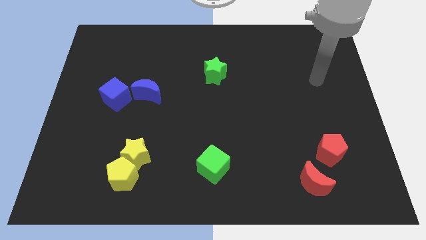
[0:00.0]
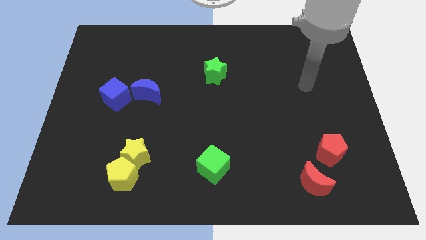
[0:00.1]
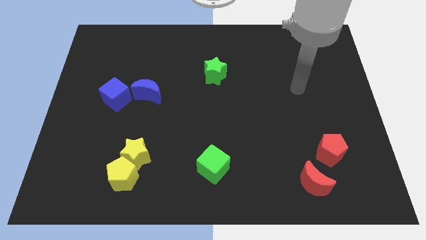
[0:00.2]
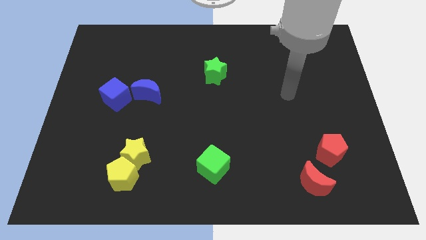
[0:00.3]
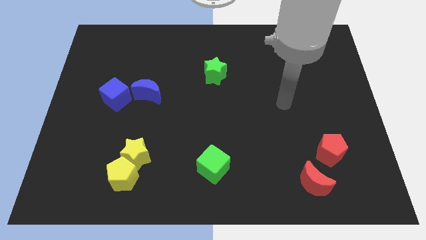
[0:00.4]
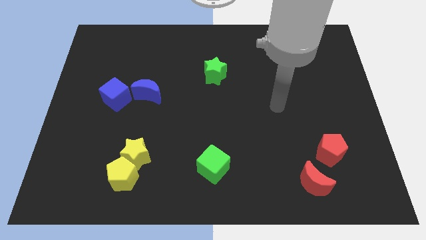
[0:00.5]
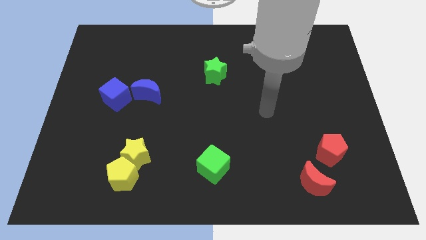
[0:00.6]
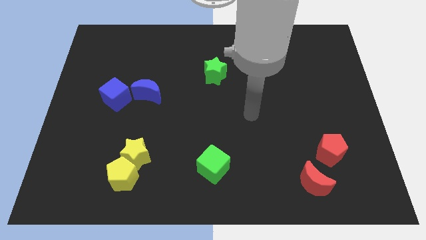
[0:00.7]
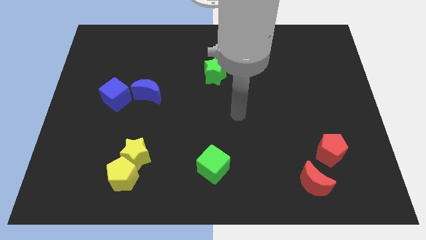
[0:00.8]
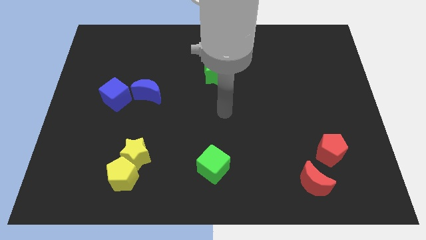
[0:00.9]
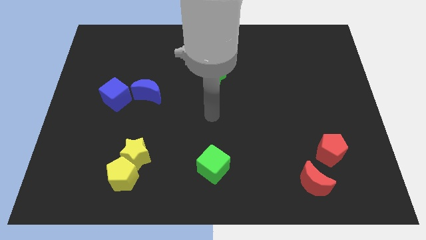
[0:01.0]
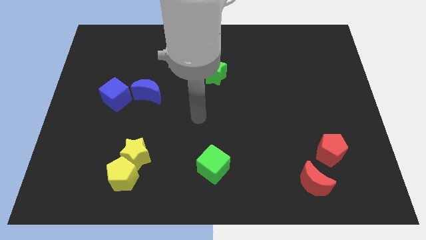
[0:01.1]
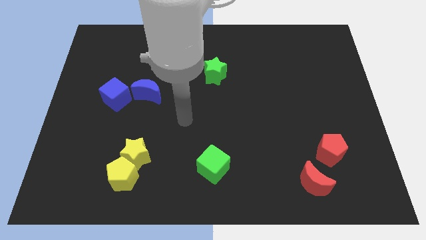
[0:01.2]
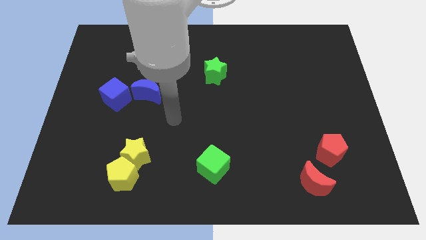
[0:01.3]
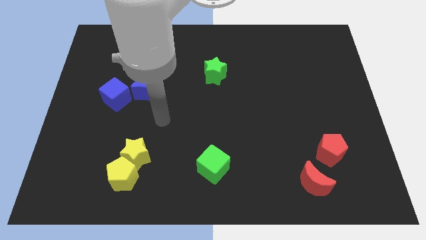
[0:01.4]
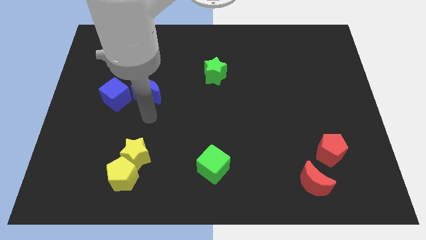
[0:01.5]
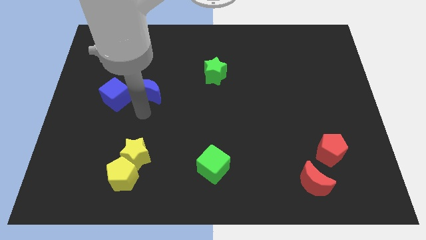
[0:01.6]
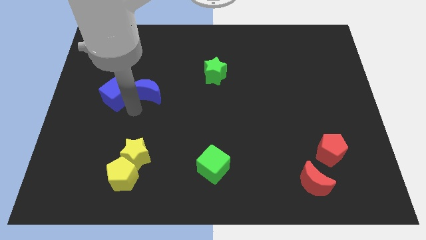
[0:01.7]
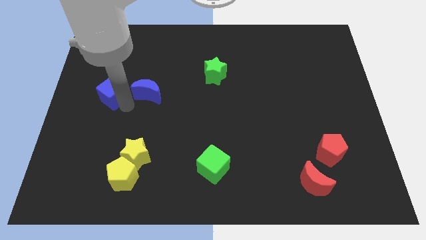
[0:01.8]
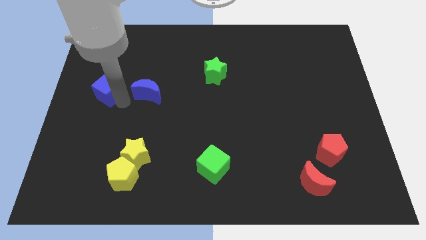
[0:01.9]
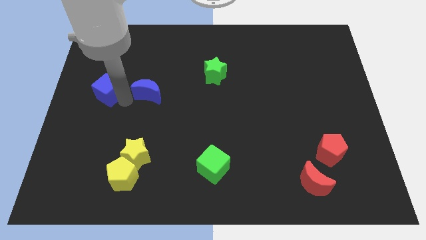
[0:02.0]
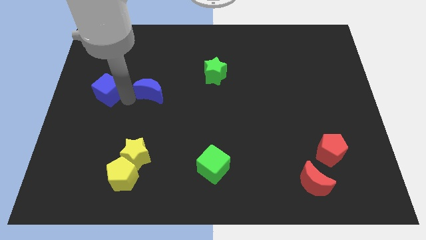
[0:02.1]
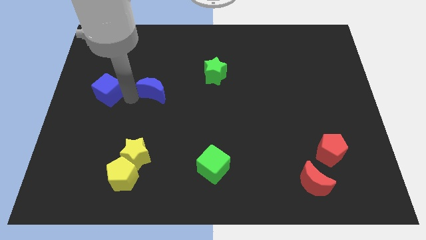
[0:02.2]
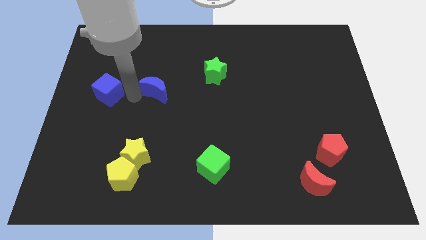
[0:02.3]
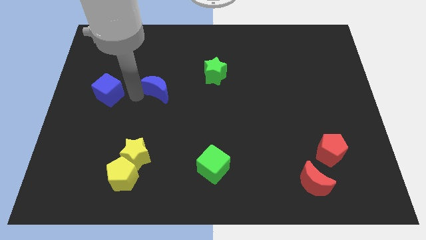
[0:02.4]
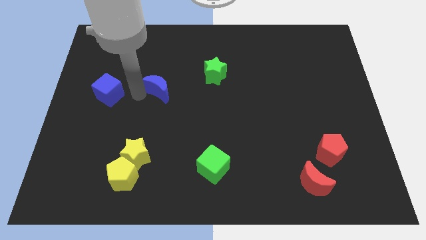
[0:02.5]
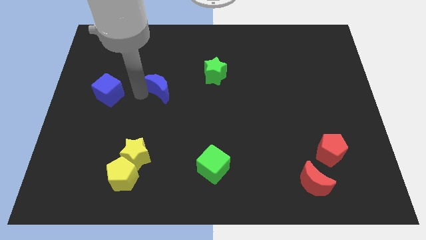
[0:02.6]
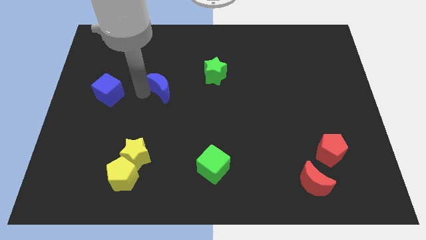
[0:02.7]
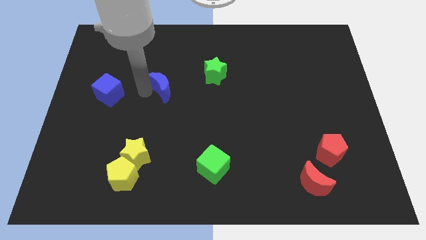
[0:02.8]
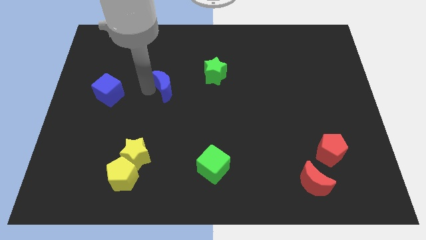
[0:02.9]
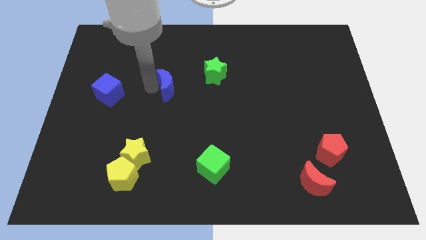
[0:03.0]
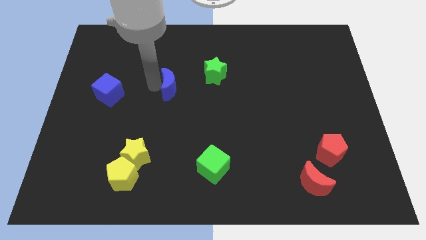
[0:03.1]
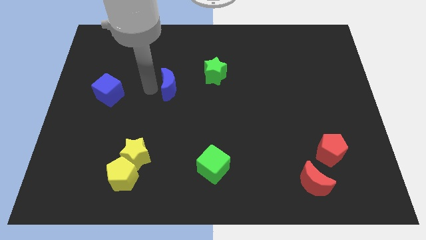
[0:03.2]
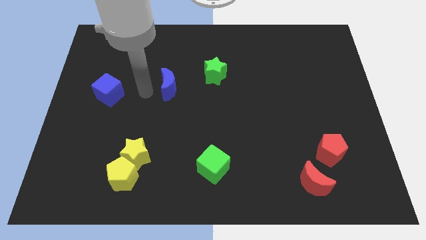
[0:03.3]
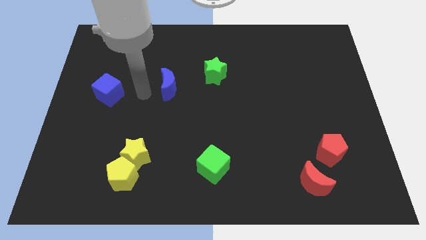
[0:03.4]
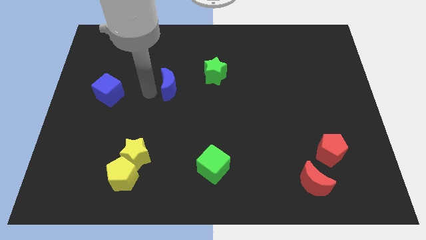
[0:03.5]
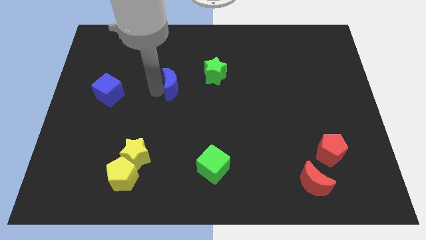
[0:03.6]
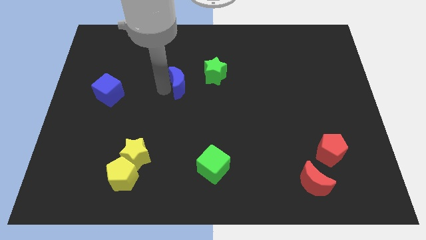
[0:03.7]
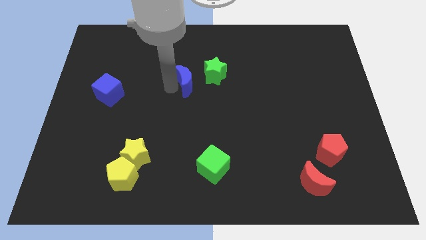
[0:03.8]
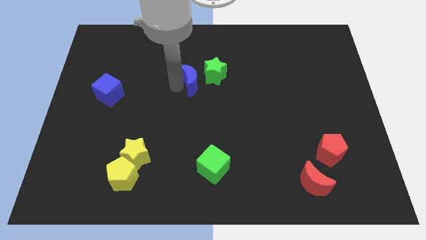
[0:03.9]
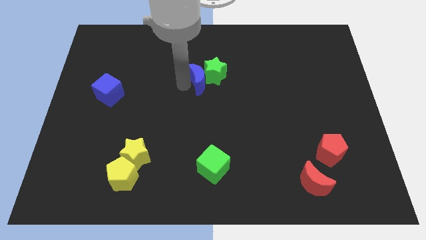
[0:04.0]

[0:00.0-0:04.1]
put the blue moon towards the green star

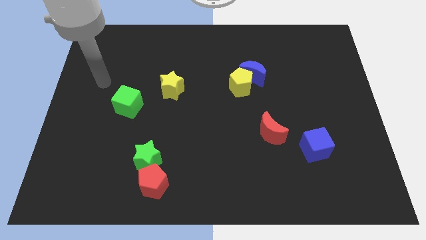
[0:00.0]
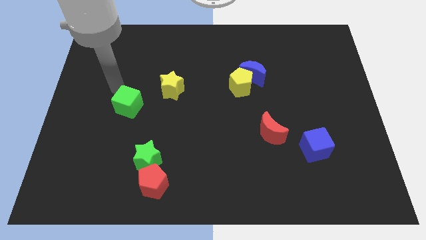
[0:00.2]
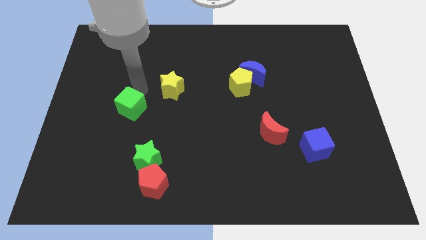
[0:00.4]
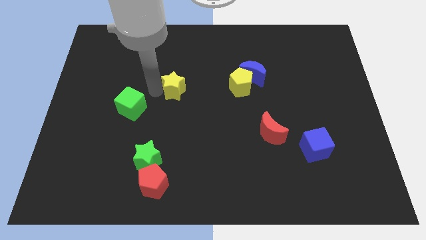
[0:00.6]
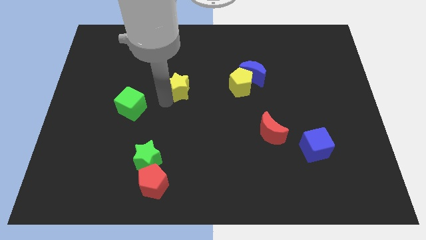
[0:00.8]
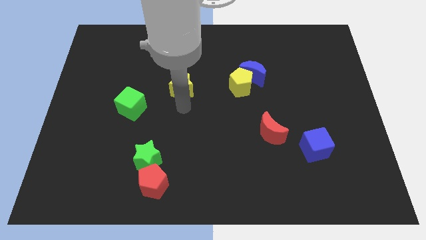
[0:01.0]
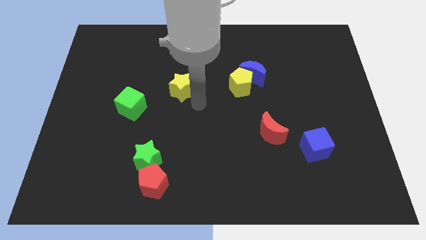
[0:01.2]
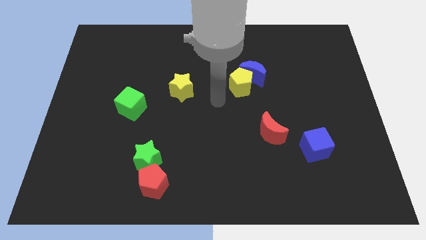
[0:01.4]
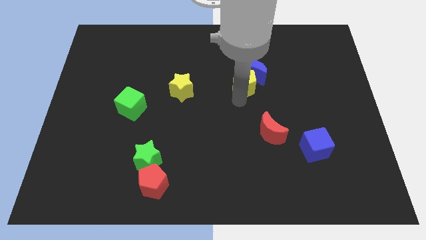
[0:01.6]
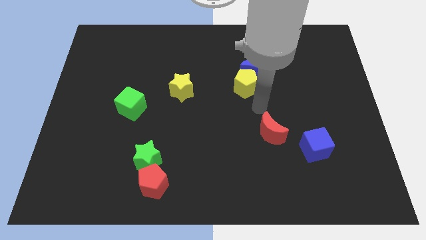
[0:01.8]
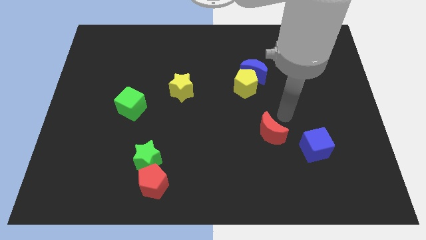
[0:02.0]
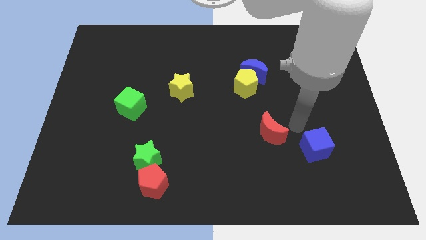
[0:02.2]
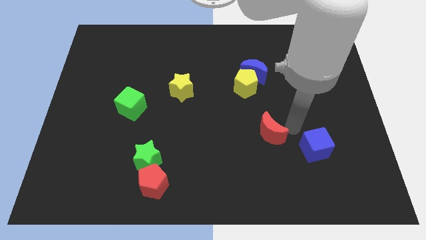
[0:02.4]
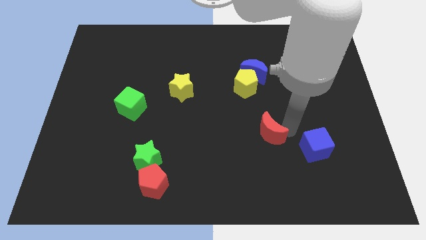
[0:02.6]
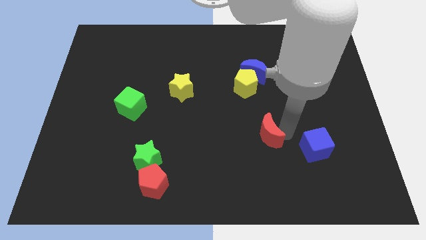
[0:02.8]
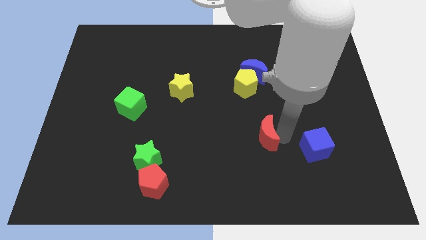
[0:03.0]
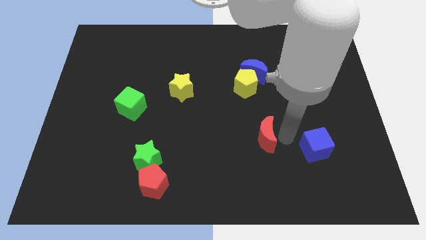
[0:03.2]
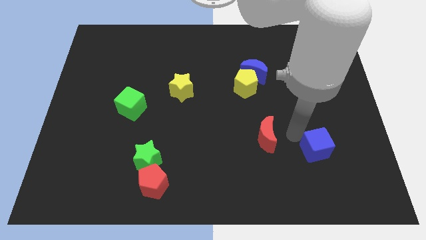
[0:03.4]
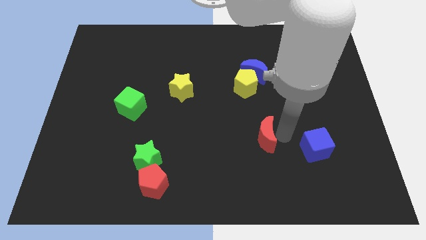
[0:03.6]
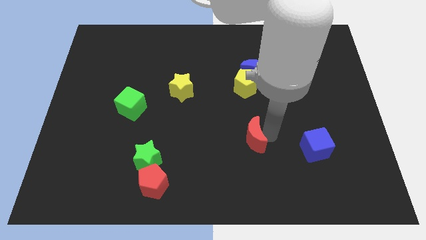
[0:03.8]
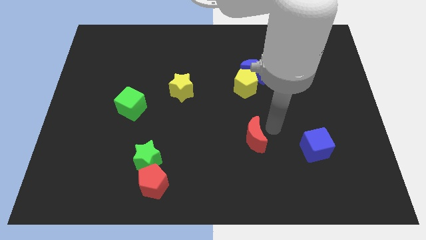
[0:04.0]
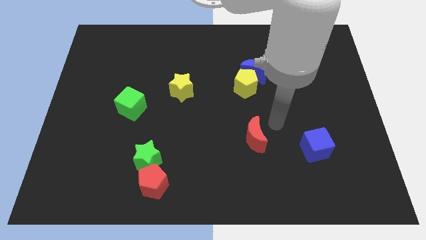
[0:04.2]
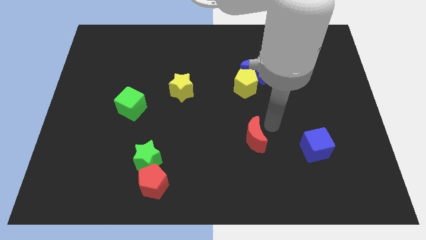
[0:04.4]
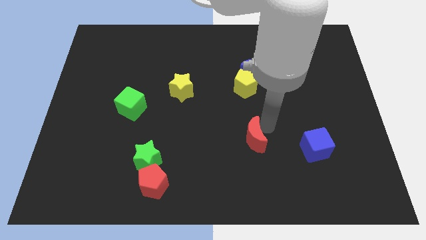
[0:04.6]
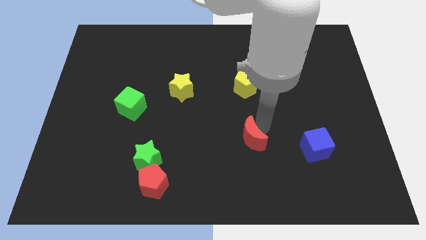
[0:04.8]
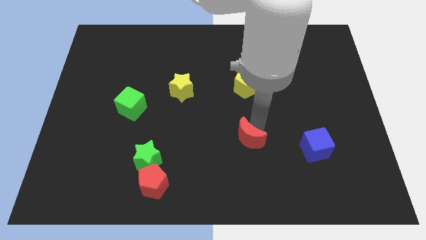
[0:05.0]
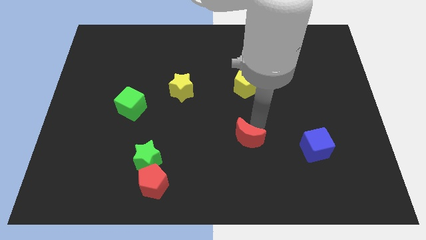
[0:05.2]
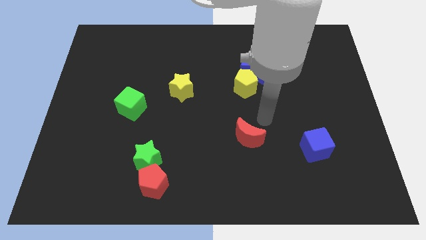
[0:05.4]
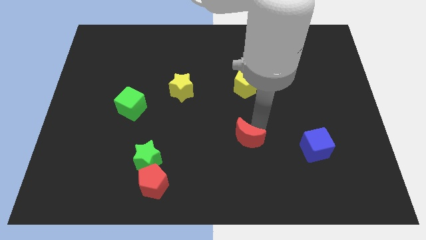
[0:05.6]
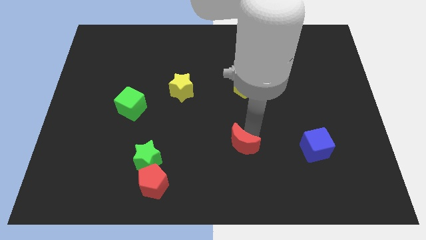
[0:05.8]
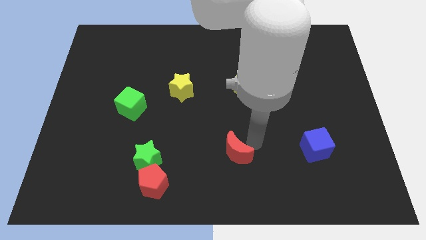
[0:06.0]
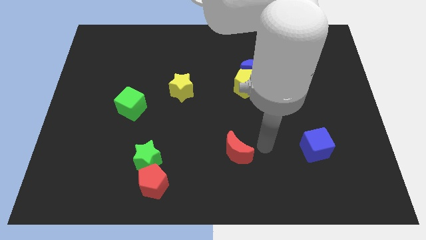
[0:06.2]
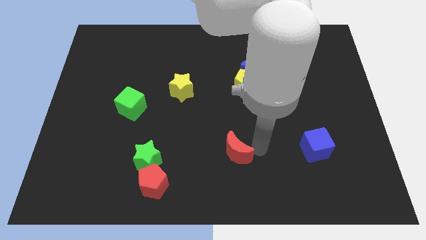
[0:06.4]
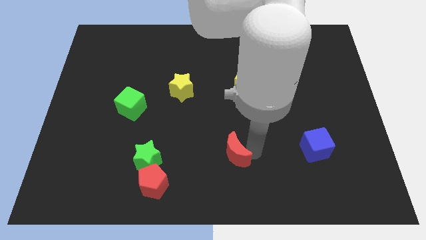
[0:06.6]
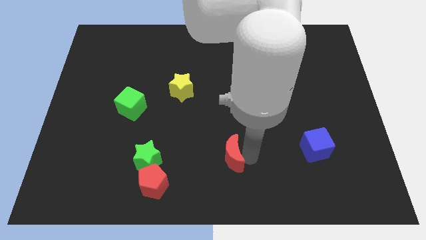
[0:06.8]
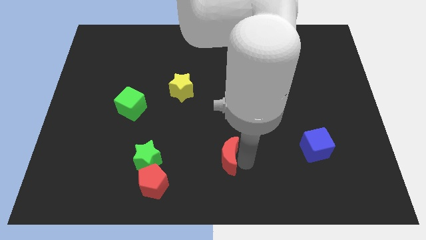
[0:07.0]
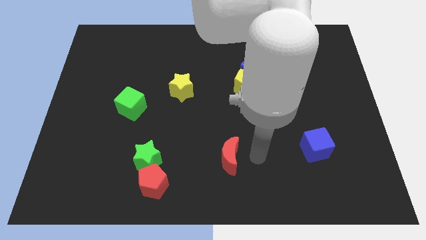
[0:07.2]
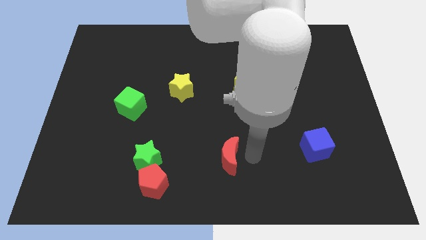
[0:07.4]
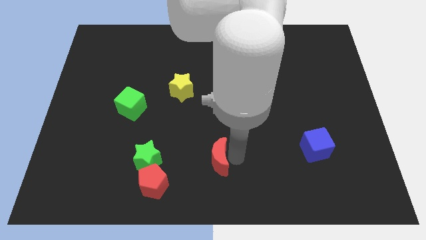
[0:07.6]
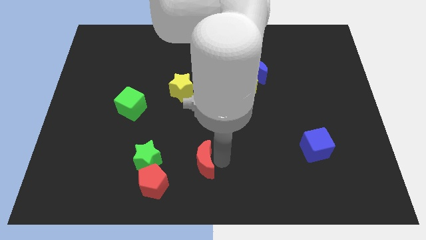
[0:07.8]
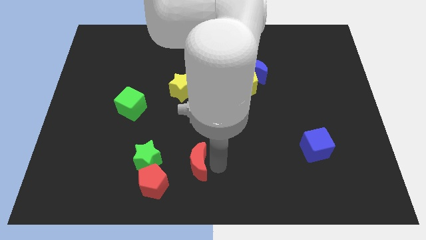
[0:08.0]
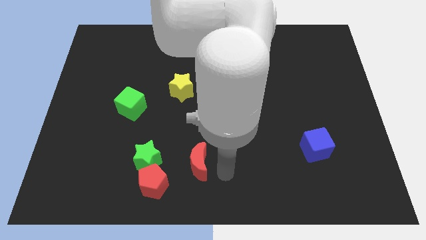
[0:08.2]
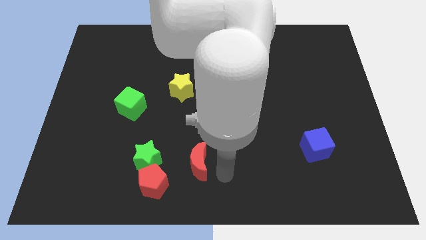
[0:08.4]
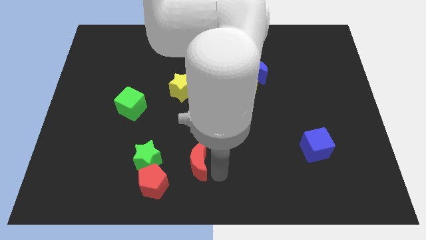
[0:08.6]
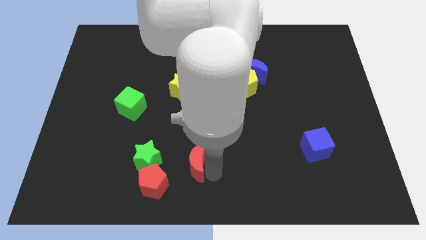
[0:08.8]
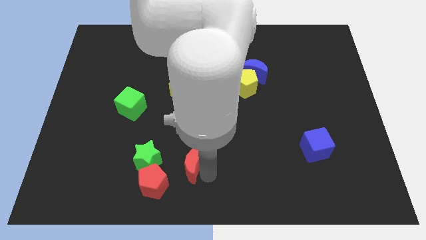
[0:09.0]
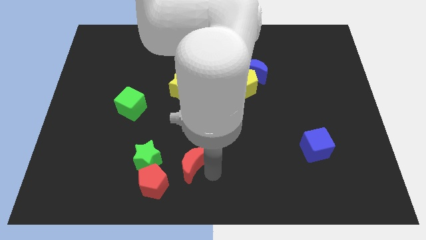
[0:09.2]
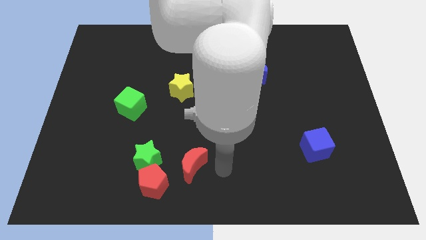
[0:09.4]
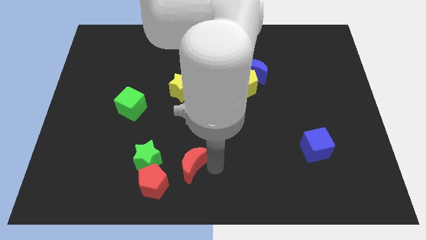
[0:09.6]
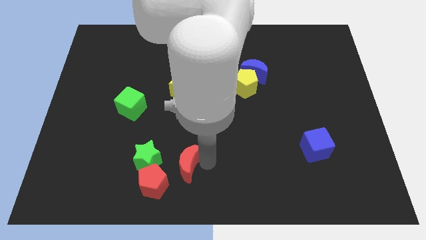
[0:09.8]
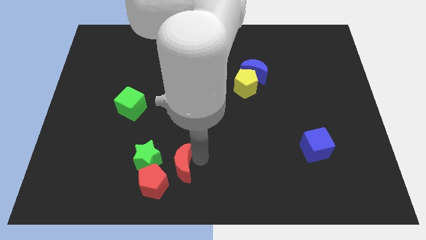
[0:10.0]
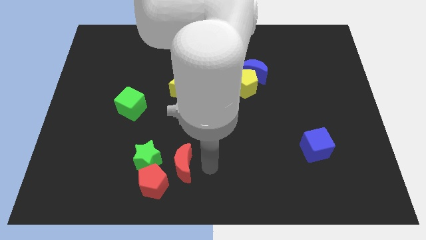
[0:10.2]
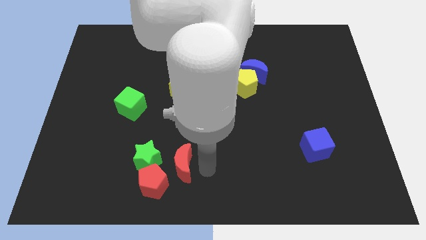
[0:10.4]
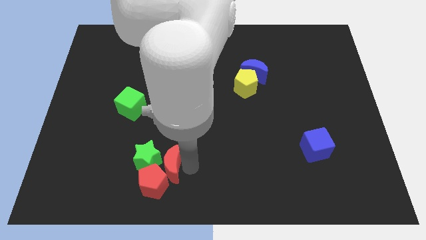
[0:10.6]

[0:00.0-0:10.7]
move the red moon next to the green star
